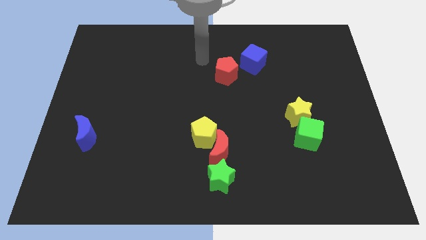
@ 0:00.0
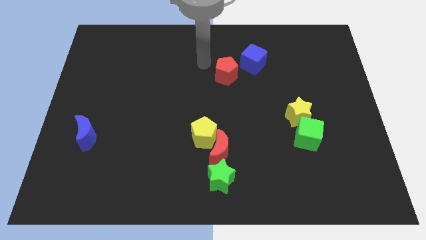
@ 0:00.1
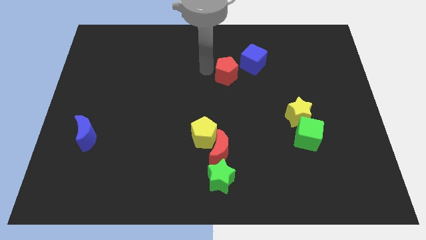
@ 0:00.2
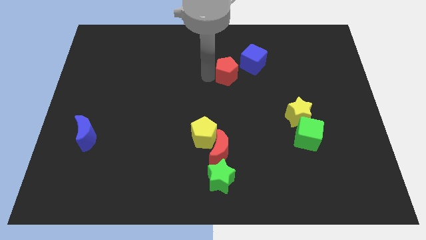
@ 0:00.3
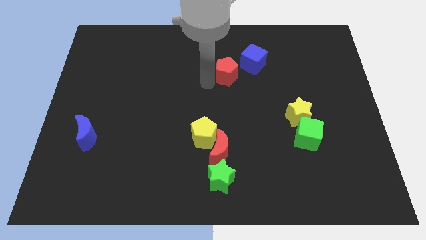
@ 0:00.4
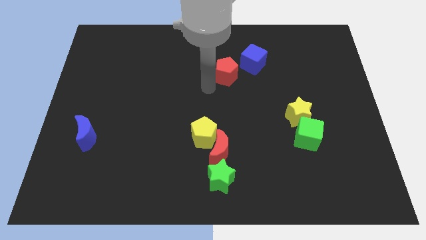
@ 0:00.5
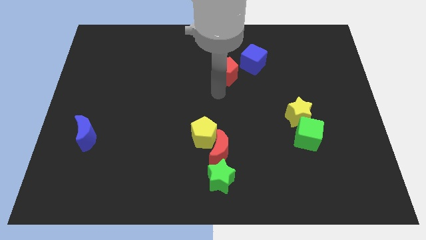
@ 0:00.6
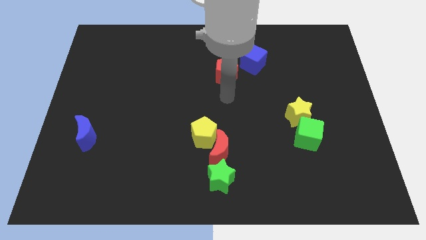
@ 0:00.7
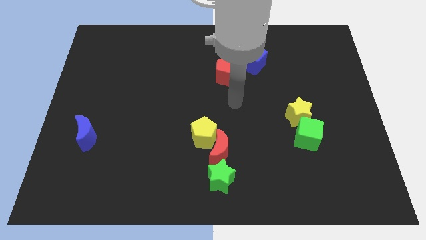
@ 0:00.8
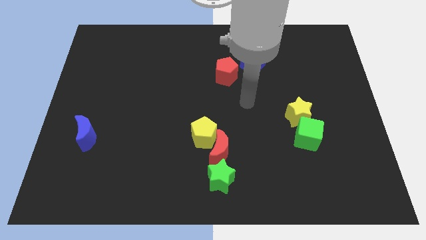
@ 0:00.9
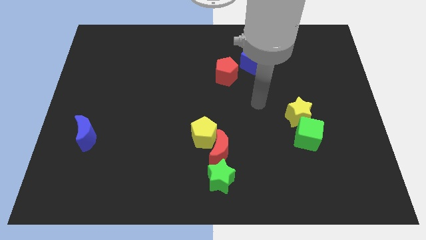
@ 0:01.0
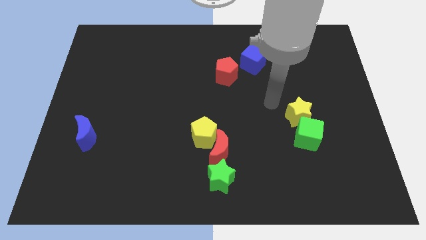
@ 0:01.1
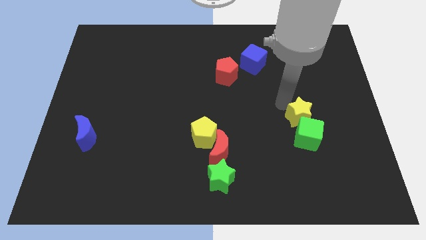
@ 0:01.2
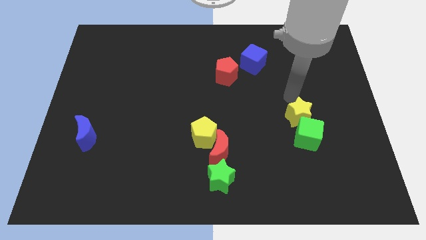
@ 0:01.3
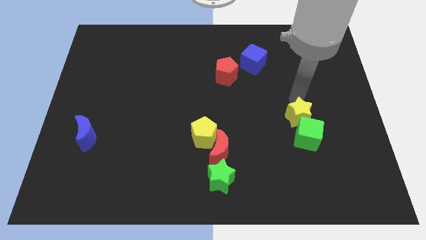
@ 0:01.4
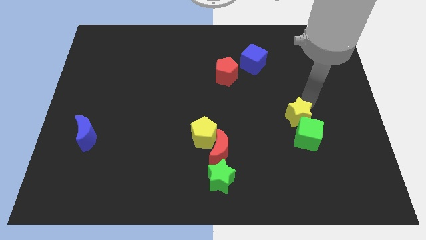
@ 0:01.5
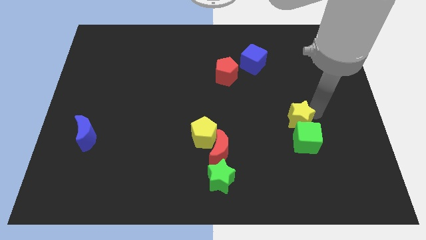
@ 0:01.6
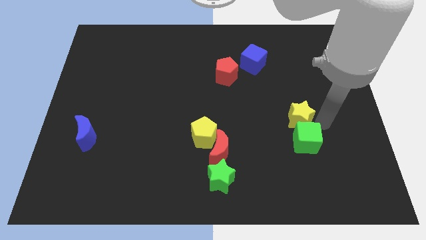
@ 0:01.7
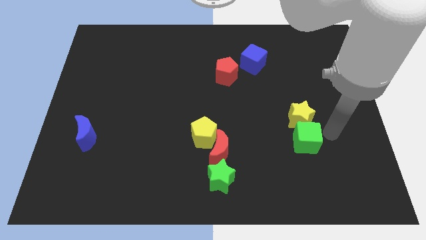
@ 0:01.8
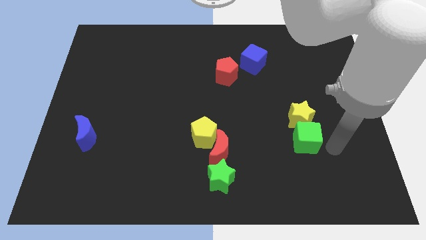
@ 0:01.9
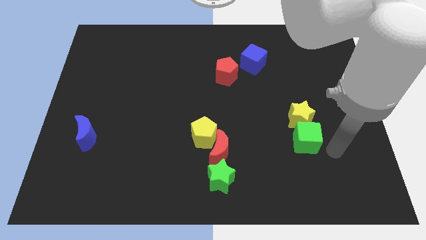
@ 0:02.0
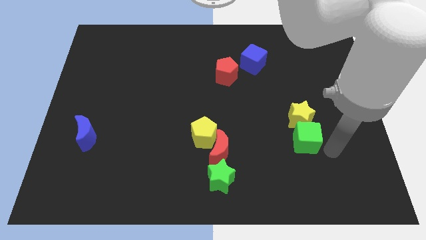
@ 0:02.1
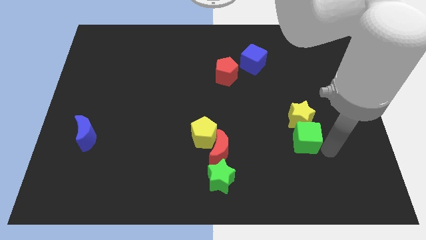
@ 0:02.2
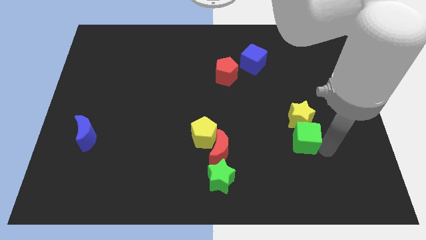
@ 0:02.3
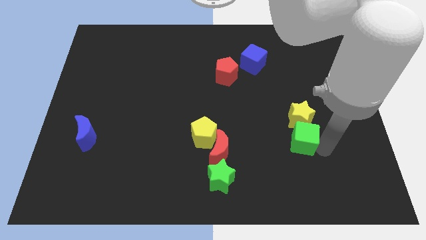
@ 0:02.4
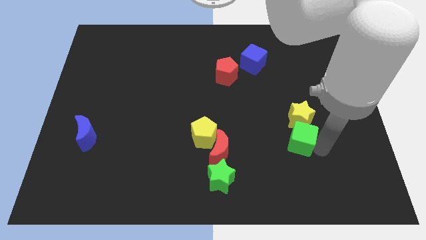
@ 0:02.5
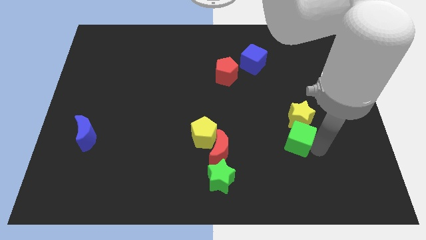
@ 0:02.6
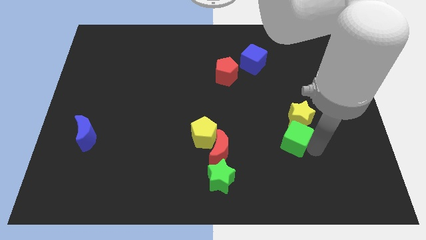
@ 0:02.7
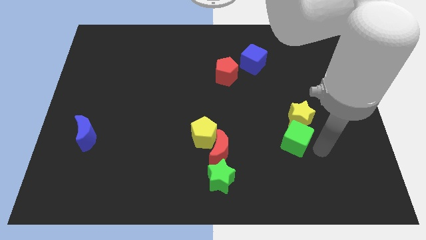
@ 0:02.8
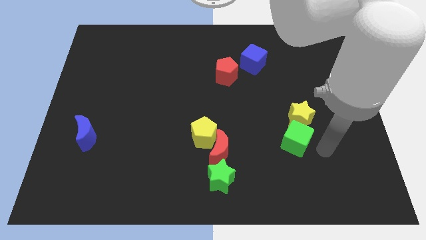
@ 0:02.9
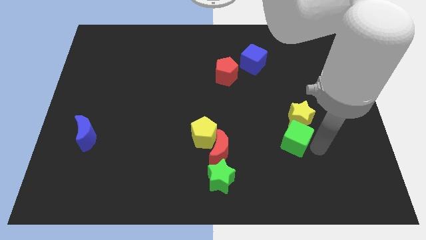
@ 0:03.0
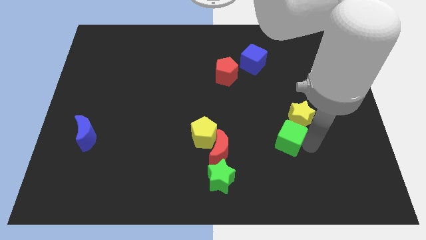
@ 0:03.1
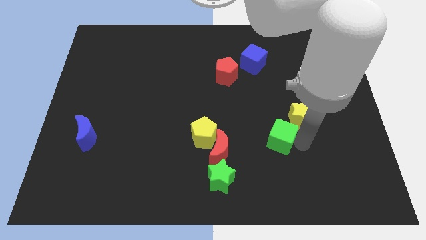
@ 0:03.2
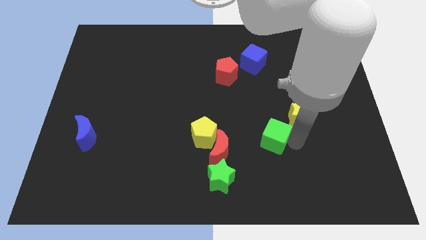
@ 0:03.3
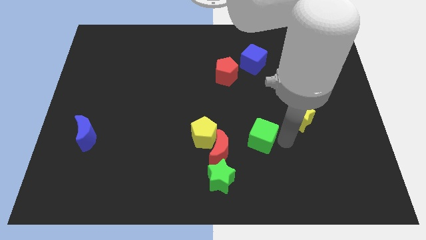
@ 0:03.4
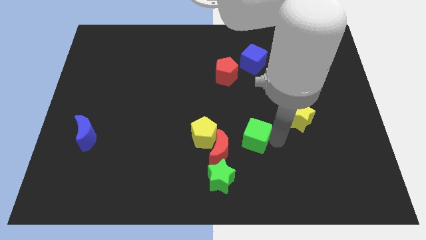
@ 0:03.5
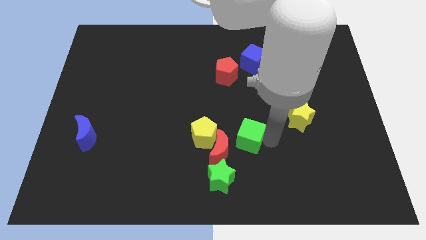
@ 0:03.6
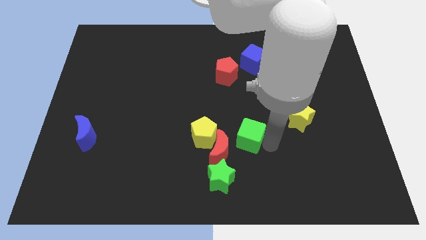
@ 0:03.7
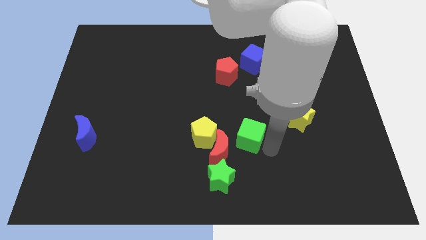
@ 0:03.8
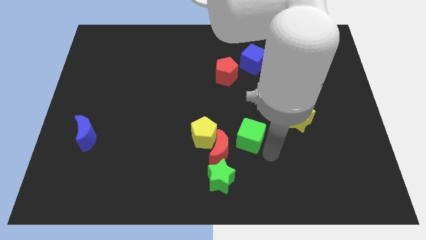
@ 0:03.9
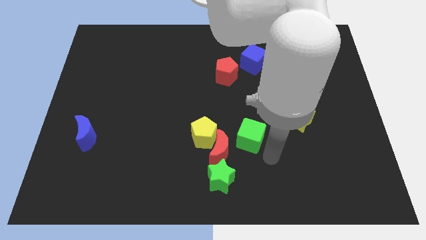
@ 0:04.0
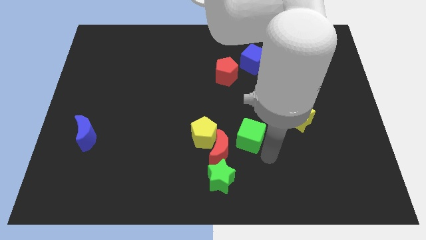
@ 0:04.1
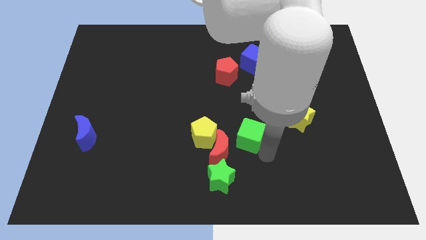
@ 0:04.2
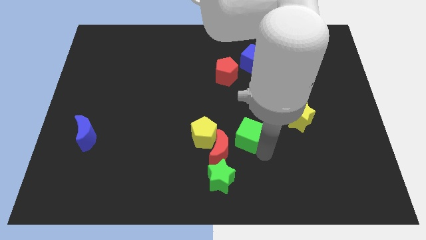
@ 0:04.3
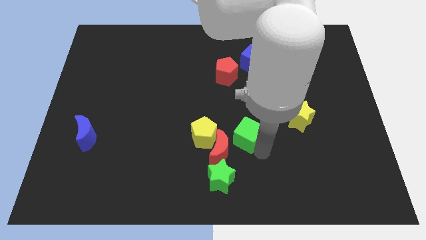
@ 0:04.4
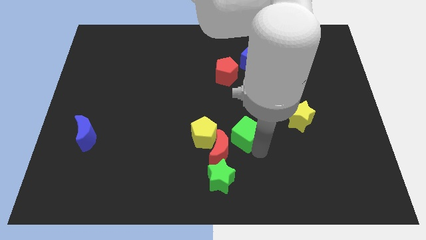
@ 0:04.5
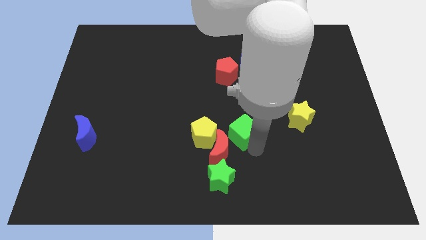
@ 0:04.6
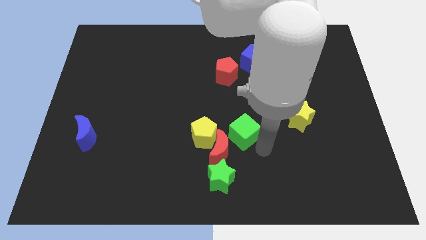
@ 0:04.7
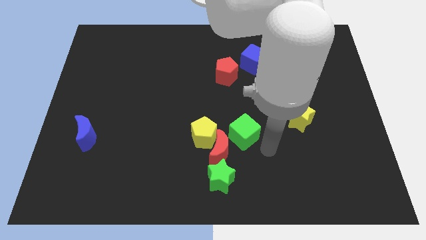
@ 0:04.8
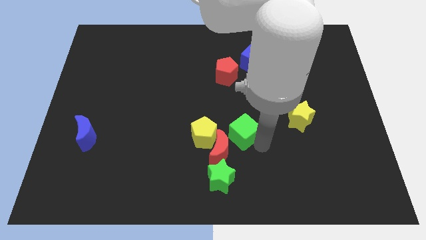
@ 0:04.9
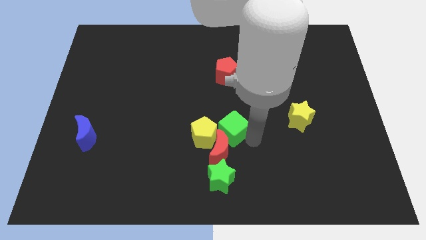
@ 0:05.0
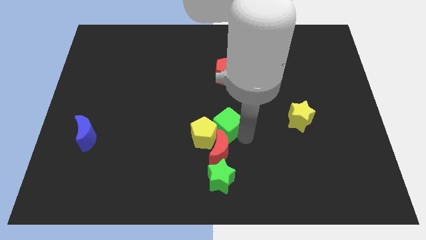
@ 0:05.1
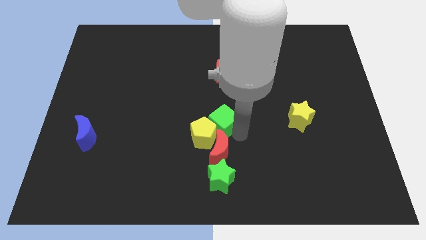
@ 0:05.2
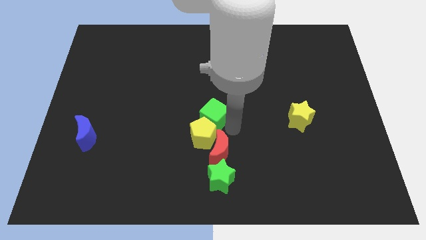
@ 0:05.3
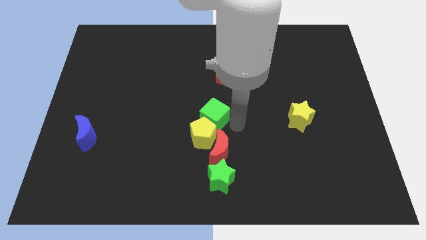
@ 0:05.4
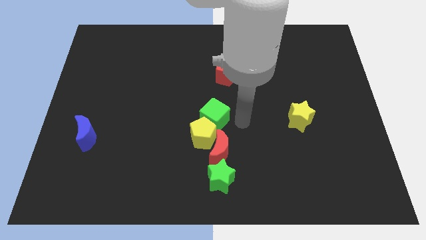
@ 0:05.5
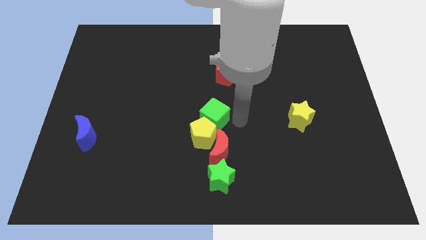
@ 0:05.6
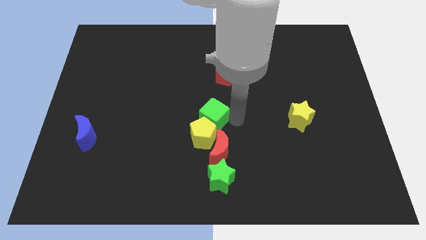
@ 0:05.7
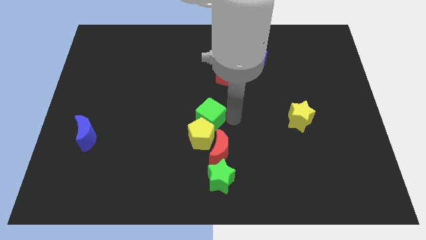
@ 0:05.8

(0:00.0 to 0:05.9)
move the green cube to the top left of the red moon

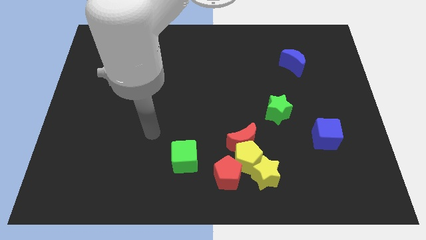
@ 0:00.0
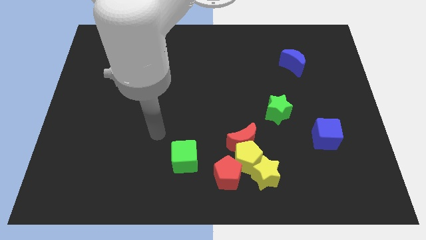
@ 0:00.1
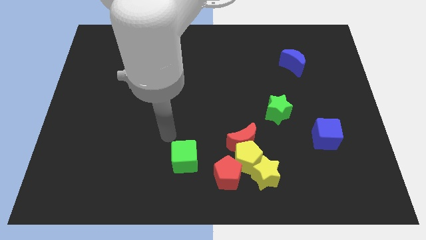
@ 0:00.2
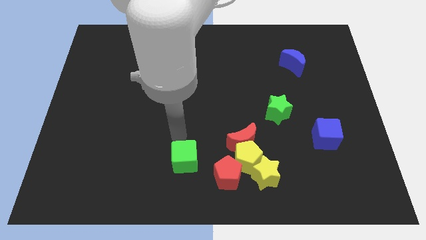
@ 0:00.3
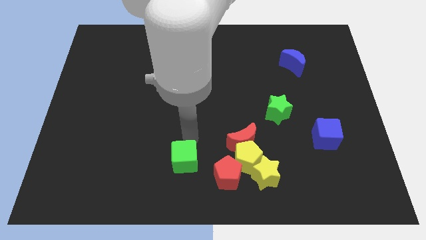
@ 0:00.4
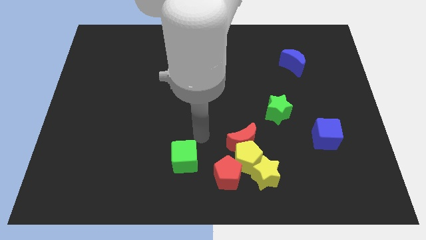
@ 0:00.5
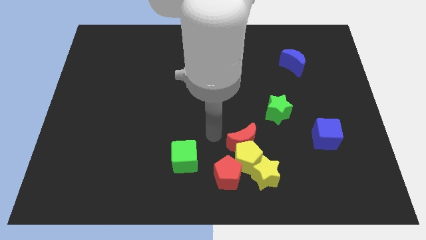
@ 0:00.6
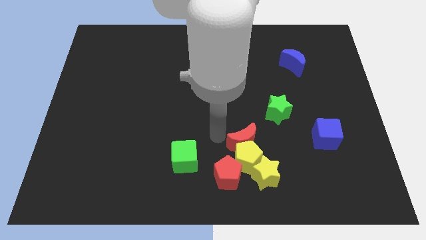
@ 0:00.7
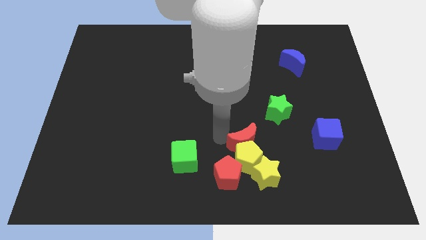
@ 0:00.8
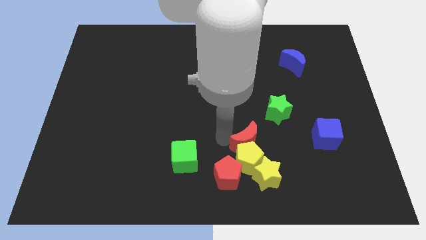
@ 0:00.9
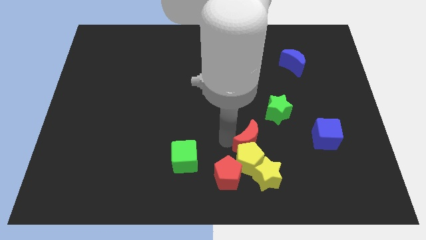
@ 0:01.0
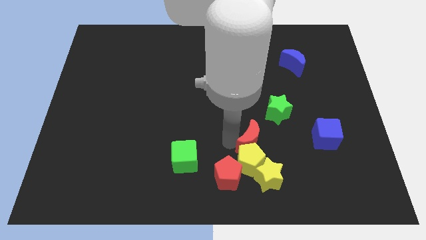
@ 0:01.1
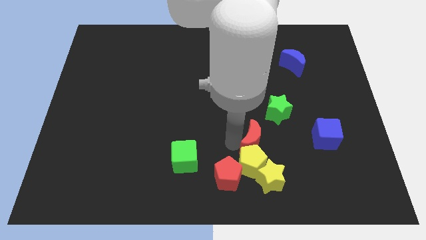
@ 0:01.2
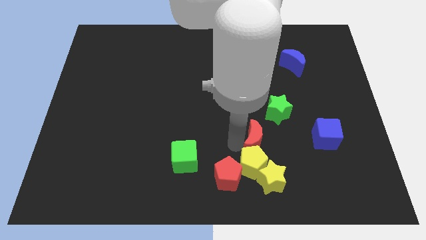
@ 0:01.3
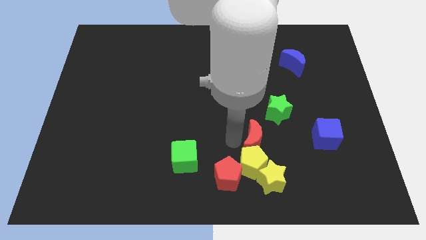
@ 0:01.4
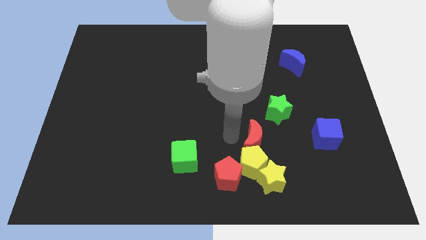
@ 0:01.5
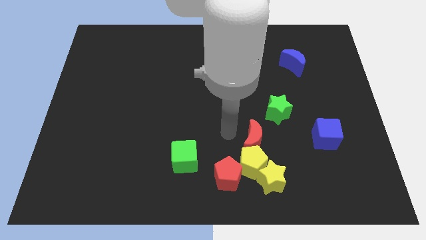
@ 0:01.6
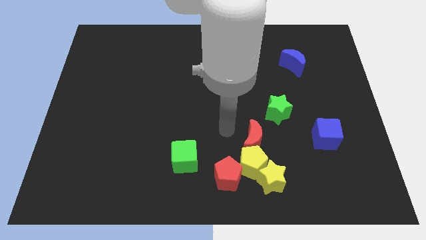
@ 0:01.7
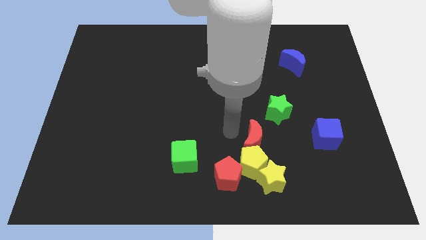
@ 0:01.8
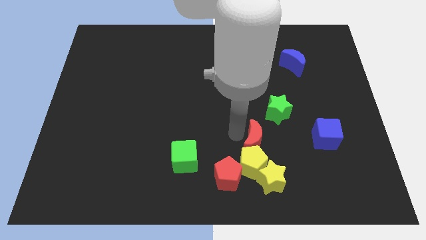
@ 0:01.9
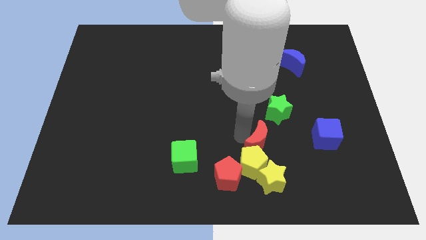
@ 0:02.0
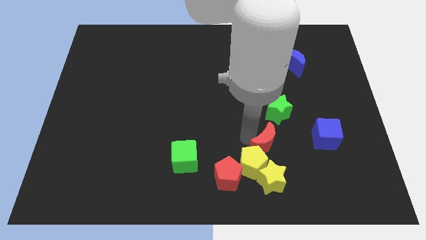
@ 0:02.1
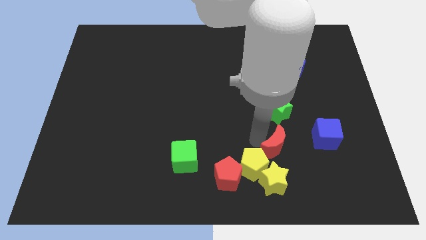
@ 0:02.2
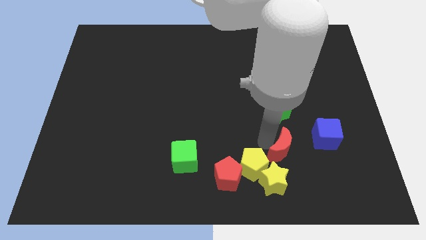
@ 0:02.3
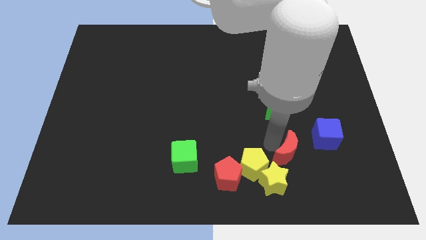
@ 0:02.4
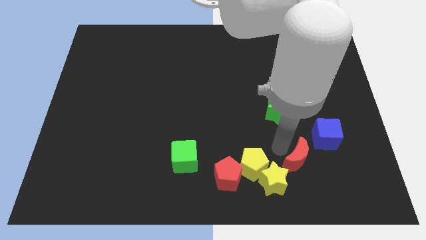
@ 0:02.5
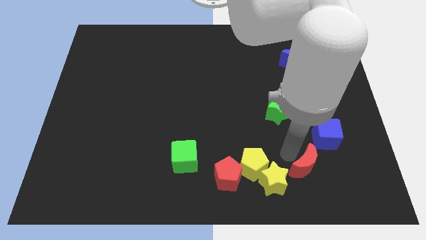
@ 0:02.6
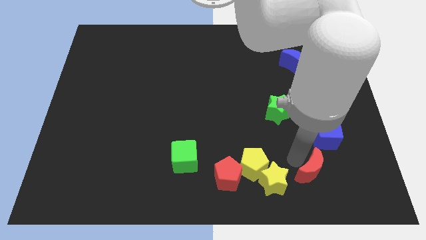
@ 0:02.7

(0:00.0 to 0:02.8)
move the red moon to the bottom of the blue cube
